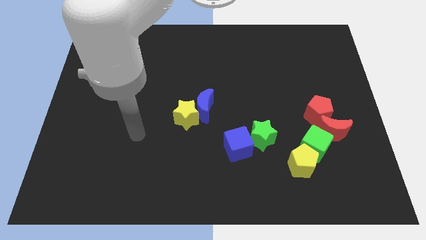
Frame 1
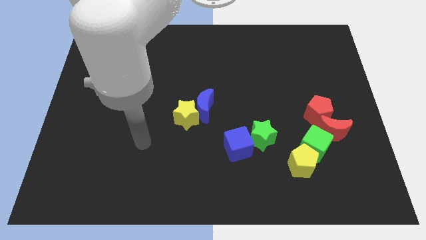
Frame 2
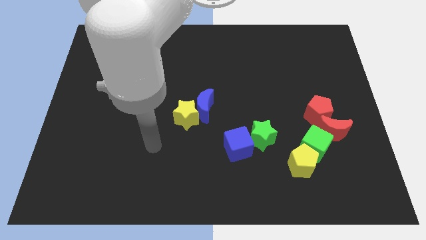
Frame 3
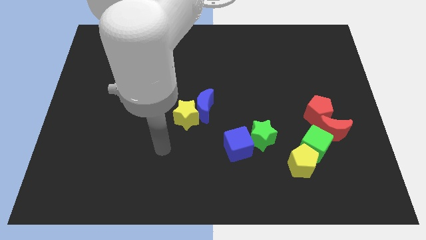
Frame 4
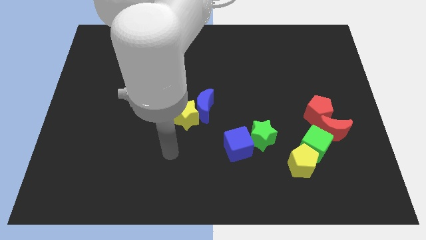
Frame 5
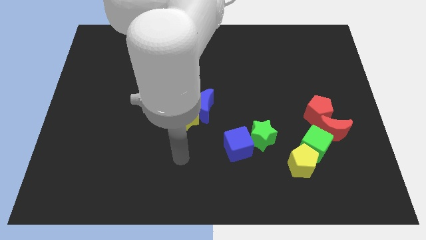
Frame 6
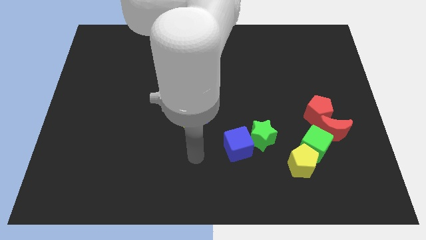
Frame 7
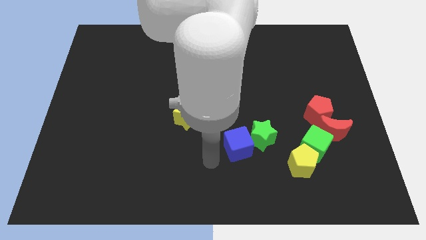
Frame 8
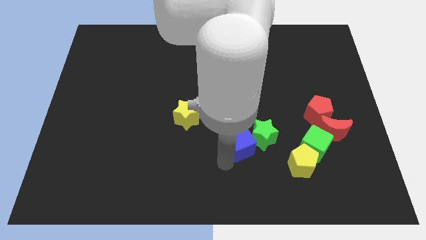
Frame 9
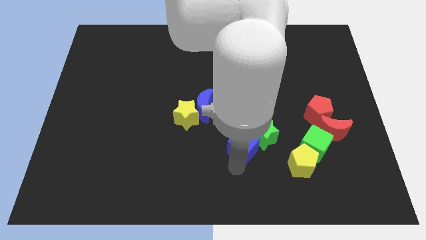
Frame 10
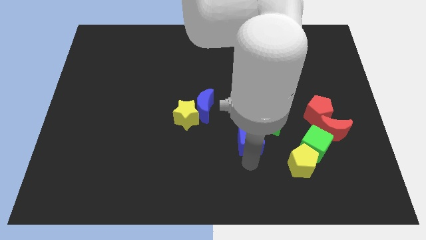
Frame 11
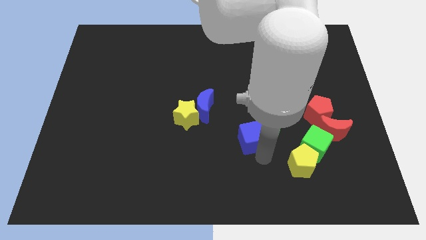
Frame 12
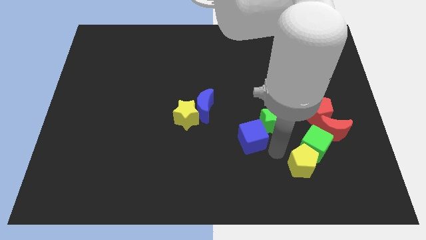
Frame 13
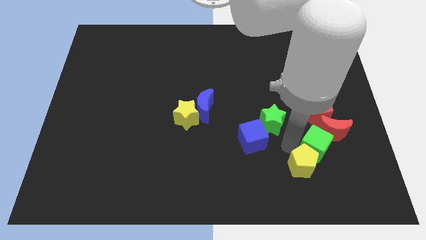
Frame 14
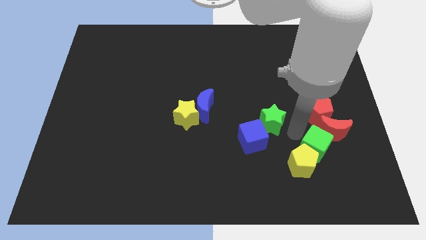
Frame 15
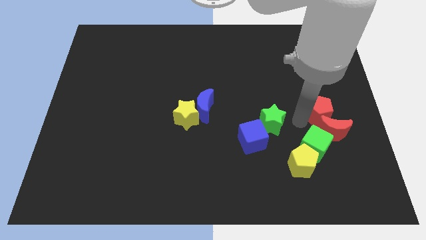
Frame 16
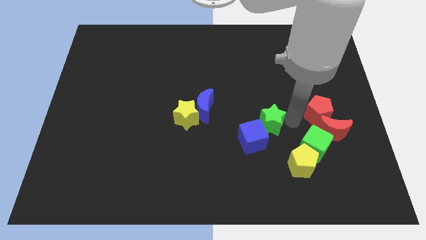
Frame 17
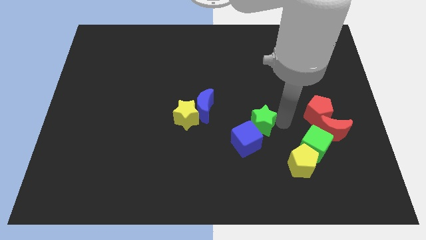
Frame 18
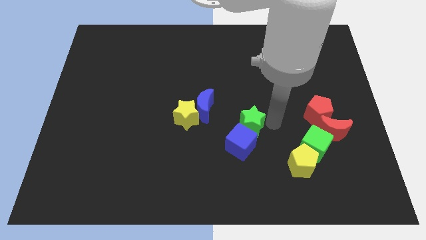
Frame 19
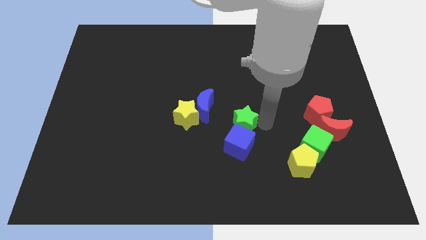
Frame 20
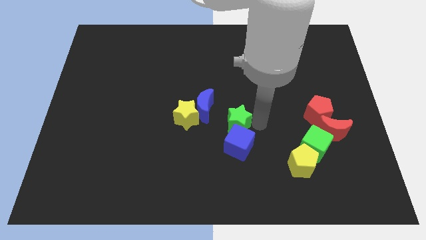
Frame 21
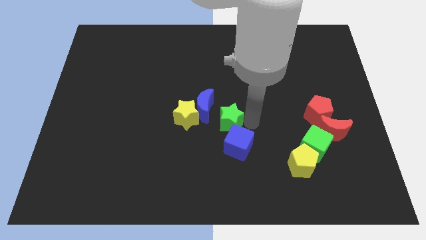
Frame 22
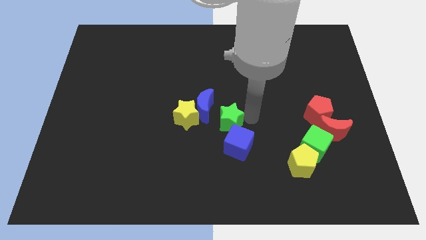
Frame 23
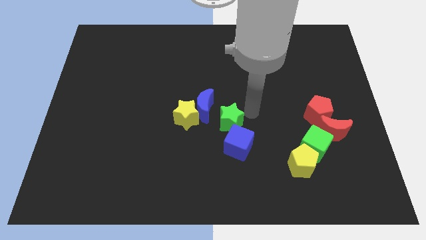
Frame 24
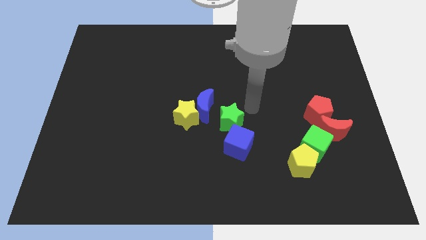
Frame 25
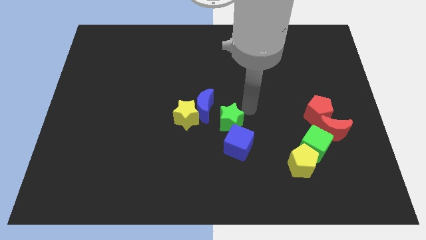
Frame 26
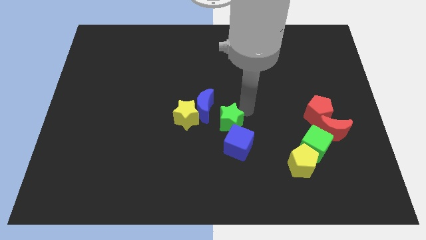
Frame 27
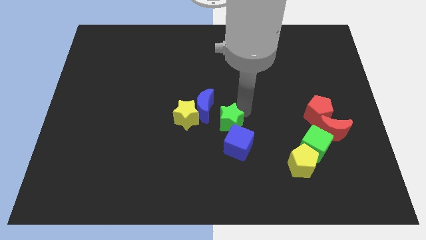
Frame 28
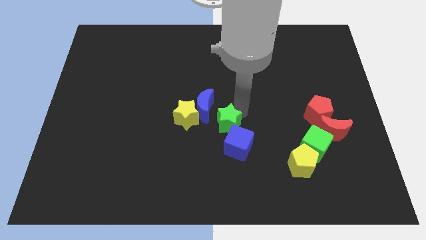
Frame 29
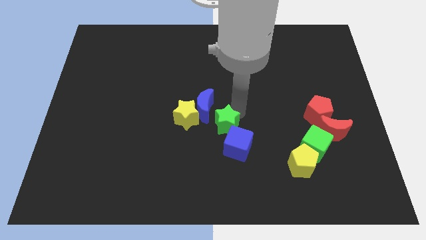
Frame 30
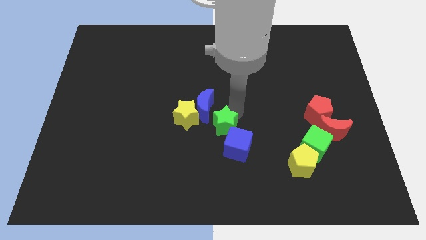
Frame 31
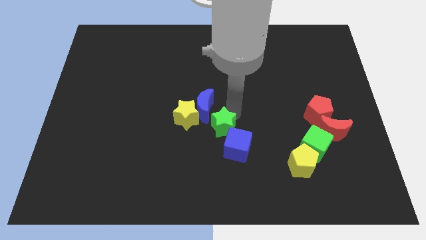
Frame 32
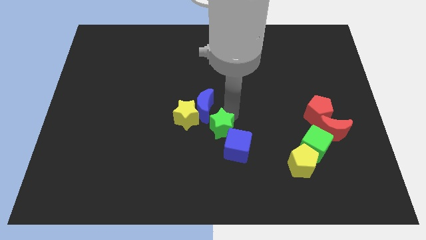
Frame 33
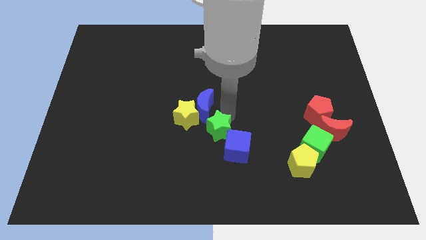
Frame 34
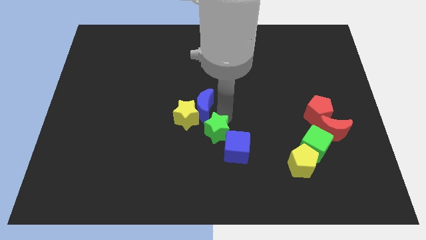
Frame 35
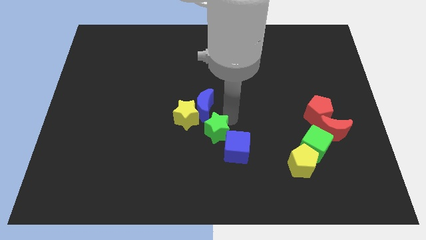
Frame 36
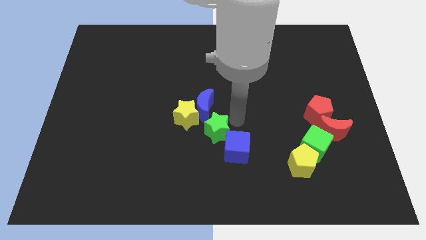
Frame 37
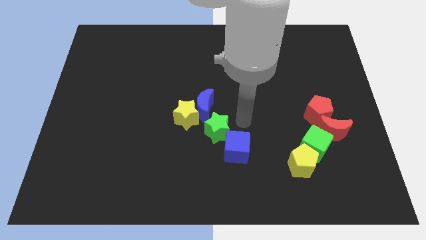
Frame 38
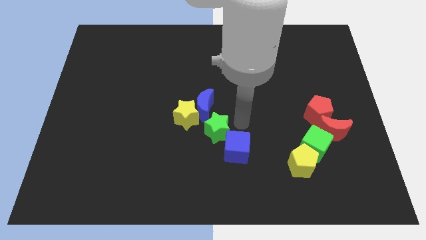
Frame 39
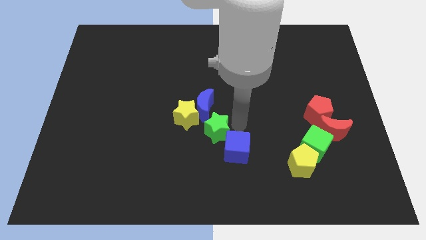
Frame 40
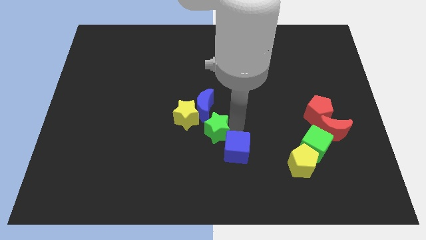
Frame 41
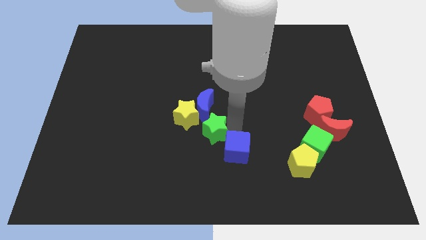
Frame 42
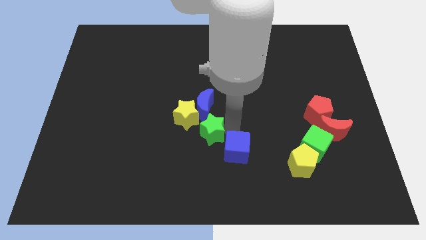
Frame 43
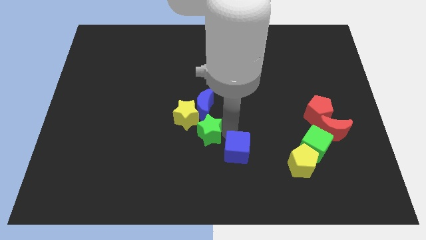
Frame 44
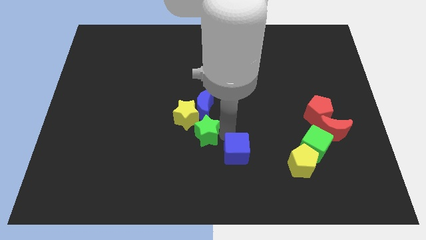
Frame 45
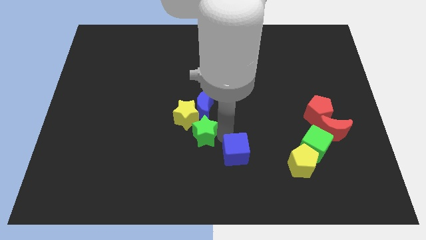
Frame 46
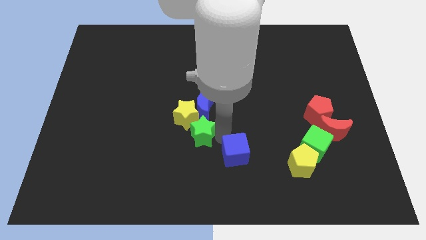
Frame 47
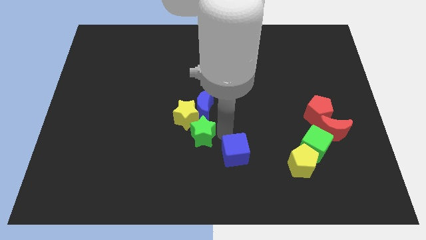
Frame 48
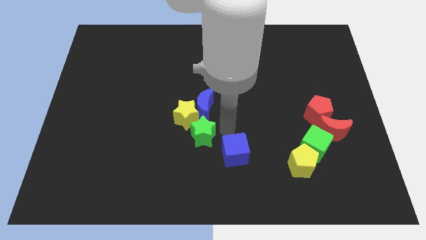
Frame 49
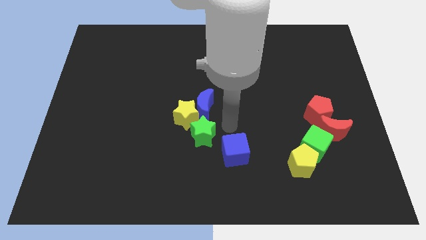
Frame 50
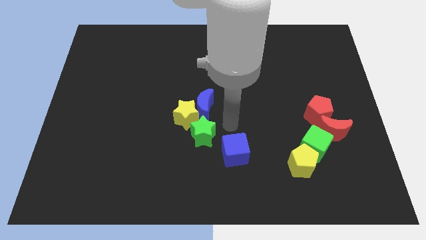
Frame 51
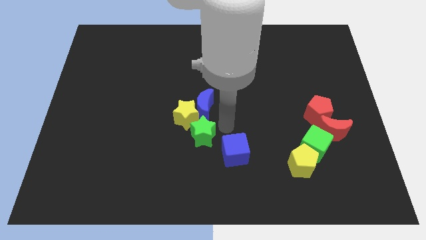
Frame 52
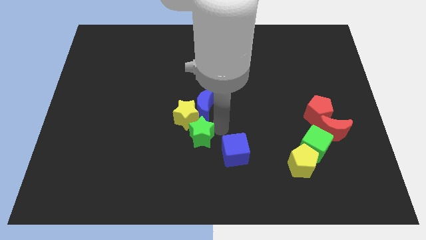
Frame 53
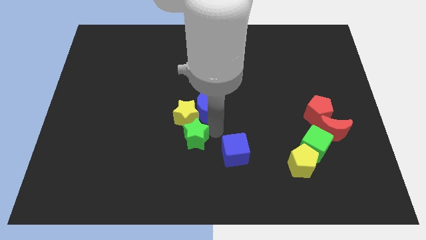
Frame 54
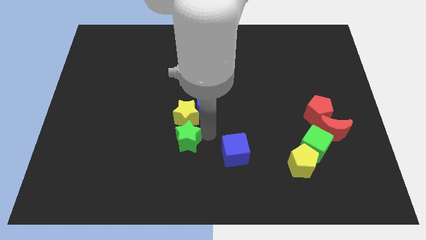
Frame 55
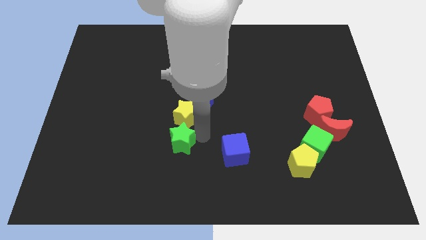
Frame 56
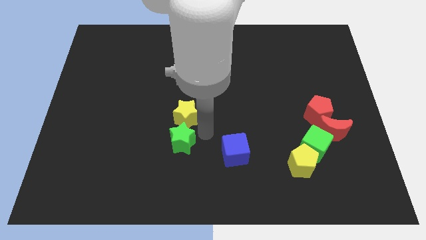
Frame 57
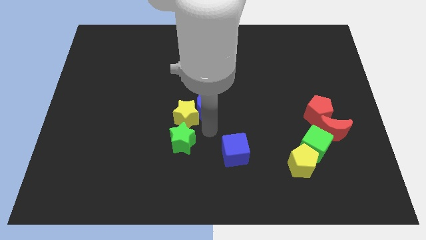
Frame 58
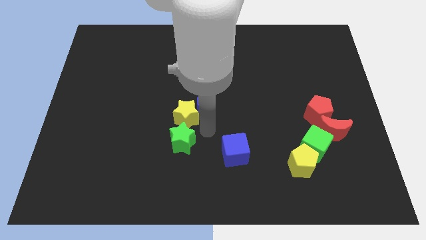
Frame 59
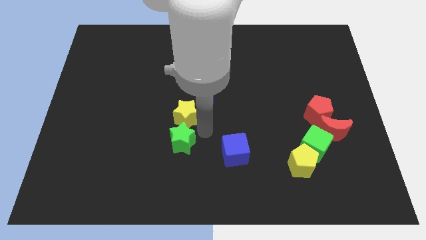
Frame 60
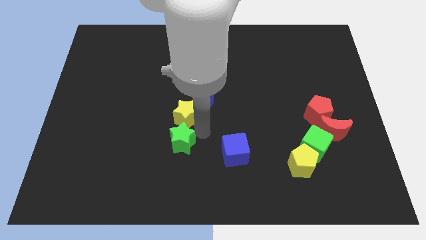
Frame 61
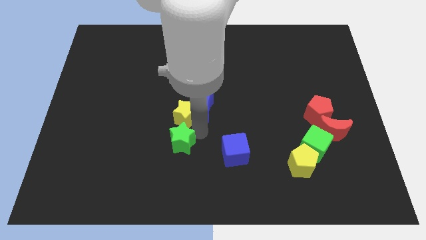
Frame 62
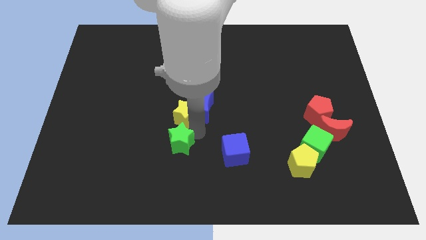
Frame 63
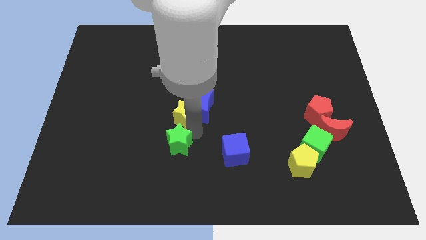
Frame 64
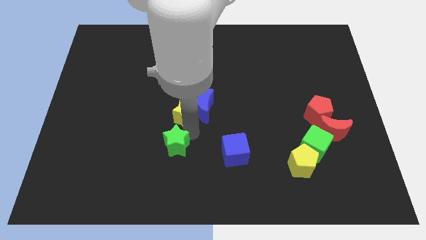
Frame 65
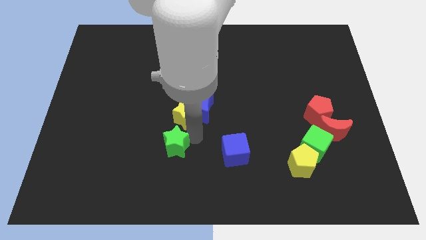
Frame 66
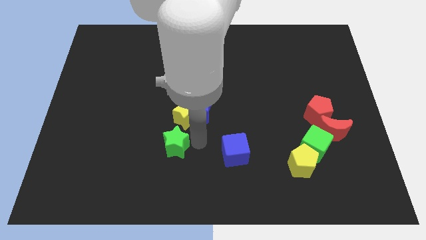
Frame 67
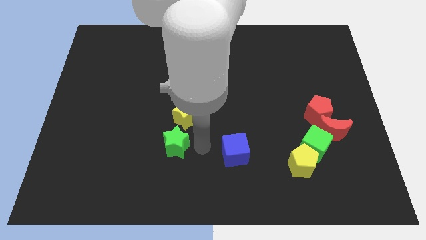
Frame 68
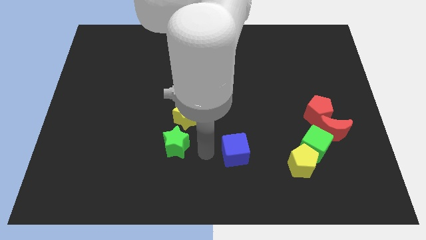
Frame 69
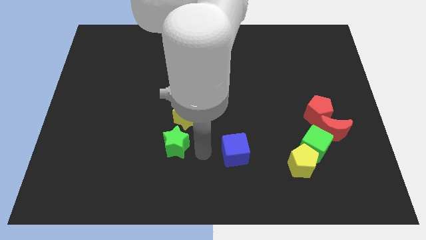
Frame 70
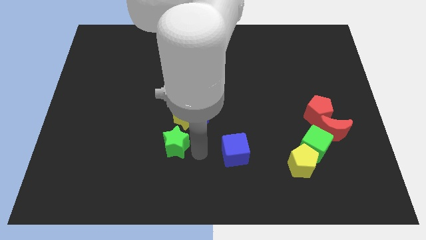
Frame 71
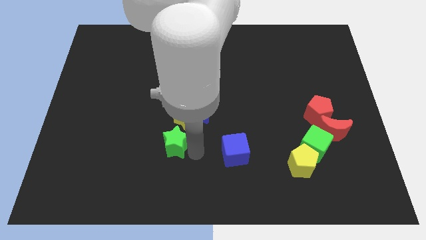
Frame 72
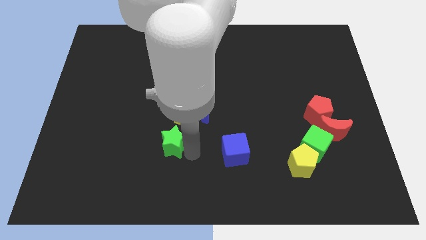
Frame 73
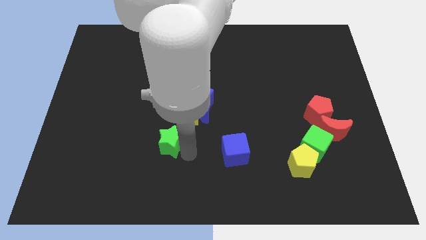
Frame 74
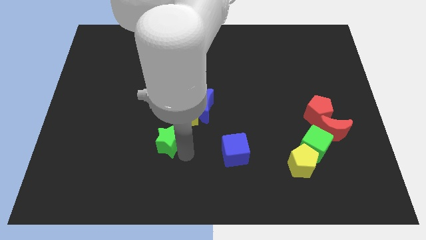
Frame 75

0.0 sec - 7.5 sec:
slide the green star left

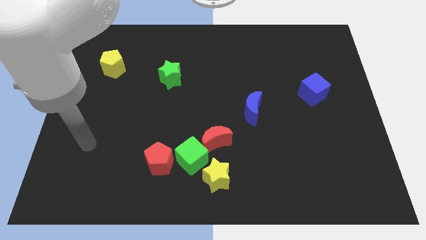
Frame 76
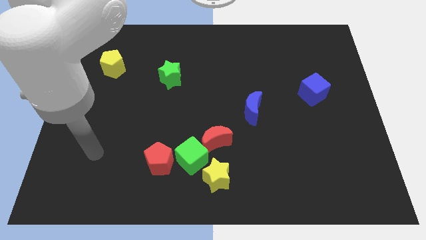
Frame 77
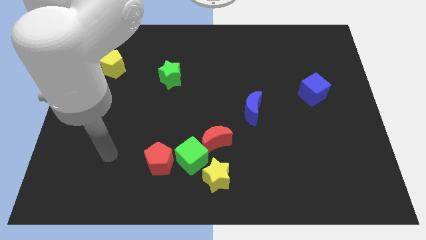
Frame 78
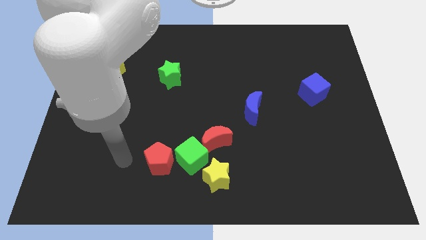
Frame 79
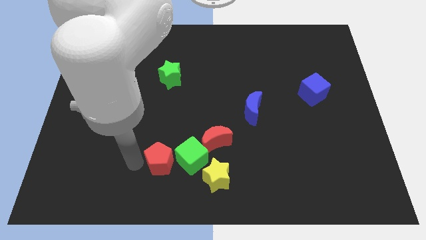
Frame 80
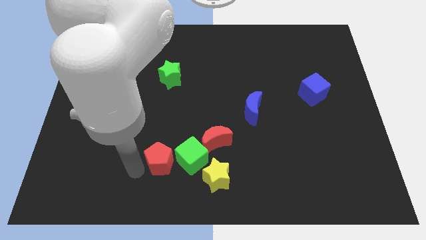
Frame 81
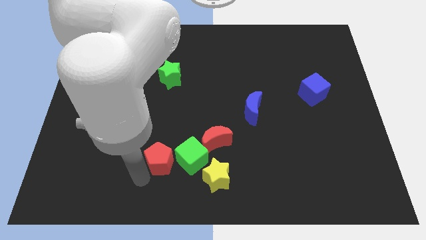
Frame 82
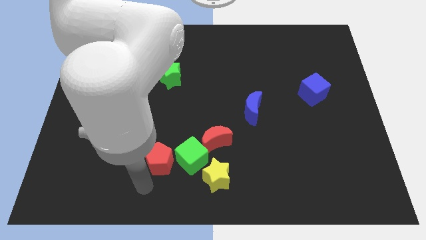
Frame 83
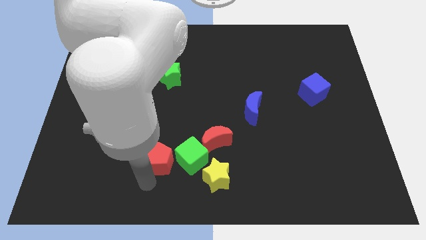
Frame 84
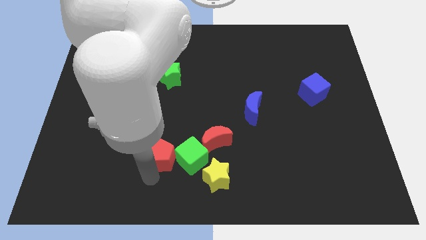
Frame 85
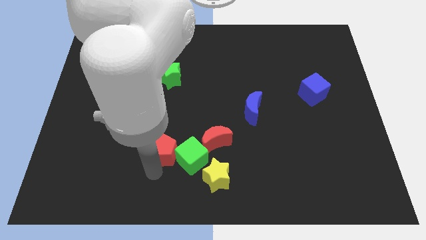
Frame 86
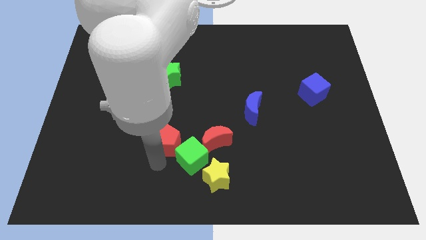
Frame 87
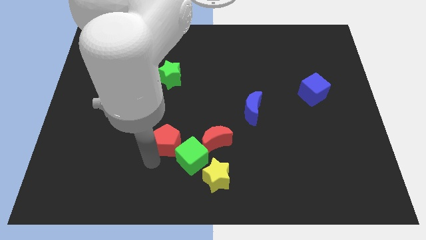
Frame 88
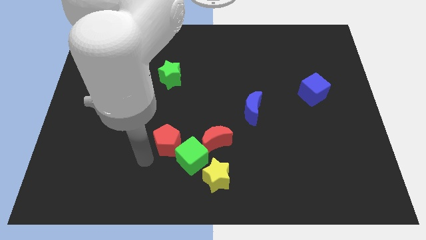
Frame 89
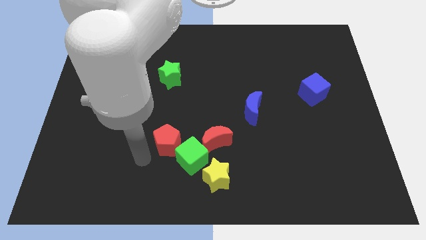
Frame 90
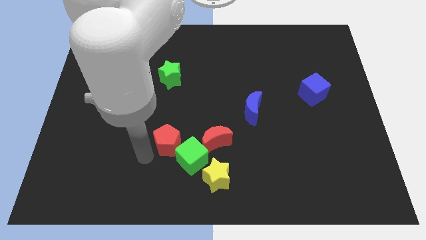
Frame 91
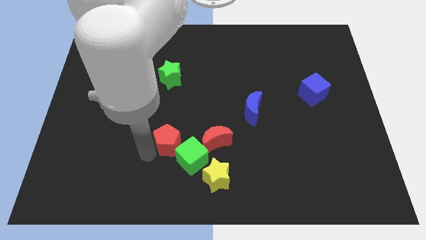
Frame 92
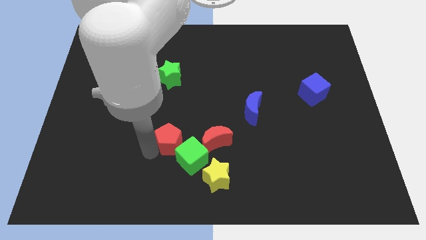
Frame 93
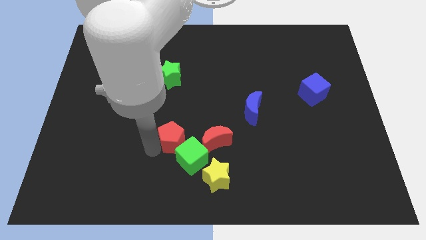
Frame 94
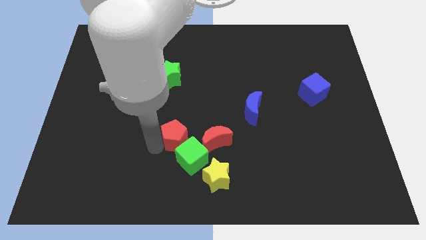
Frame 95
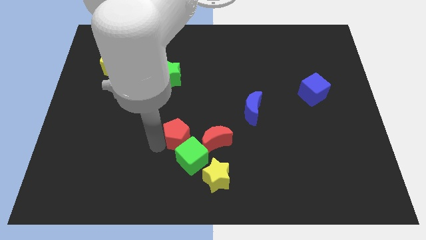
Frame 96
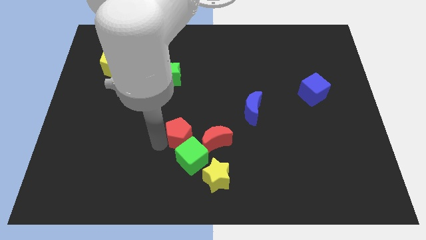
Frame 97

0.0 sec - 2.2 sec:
move the red pentagon up and right somewhat
